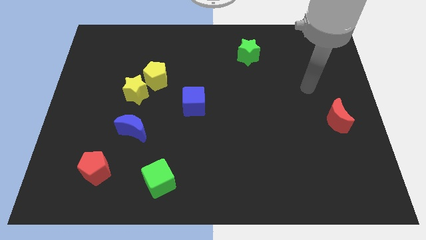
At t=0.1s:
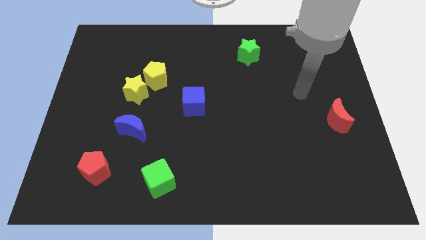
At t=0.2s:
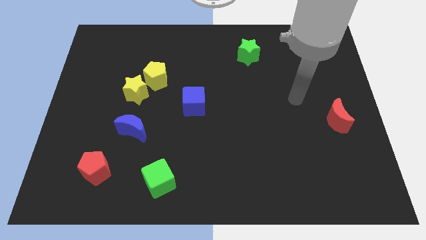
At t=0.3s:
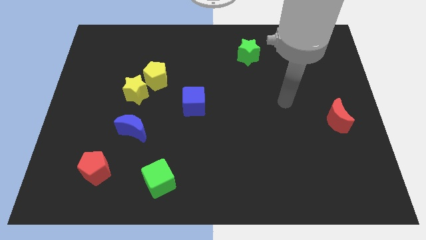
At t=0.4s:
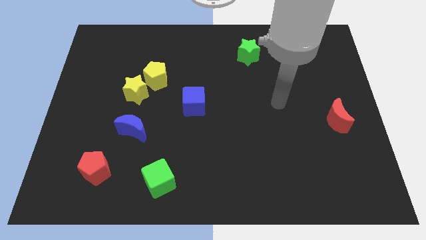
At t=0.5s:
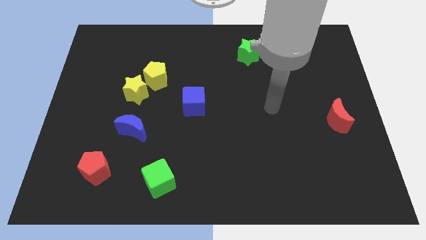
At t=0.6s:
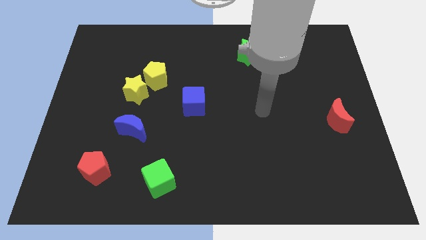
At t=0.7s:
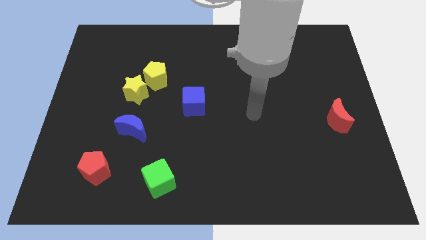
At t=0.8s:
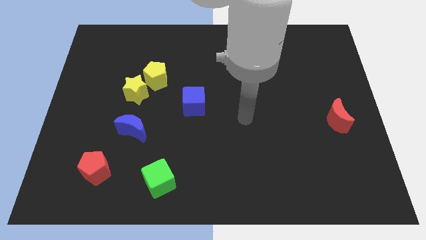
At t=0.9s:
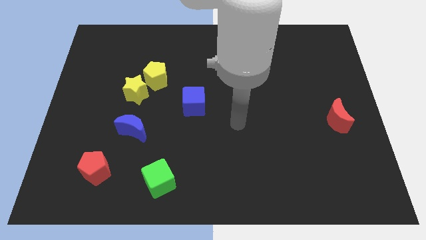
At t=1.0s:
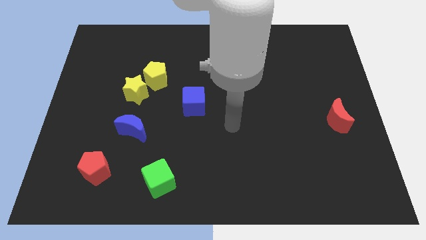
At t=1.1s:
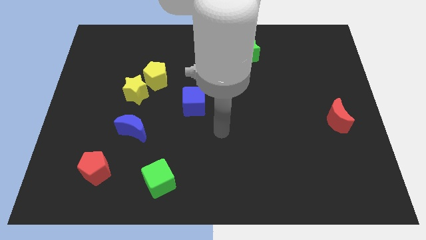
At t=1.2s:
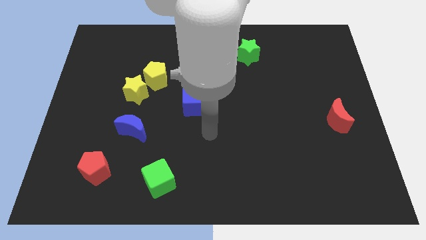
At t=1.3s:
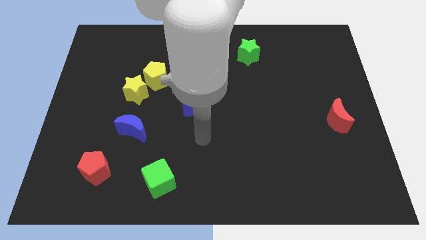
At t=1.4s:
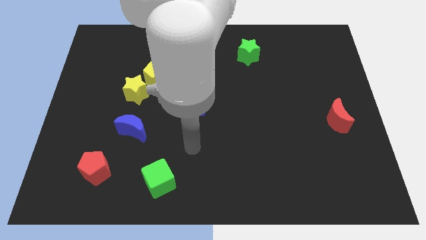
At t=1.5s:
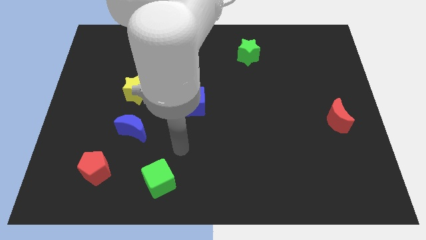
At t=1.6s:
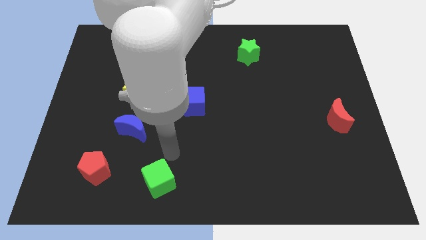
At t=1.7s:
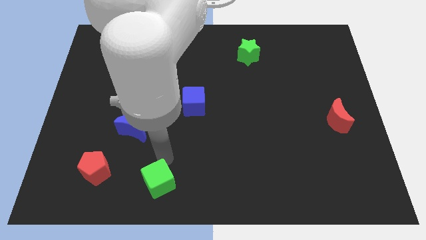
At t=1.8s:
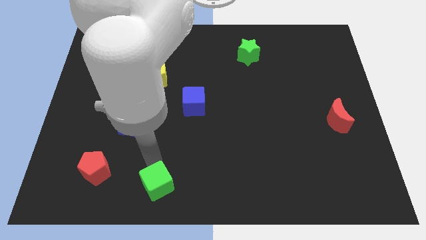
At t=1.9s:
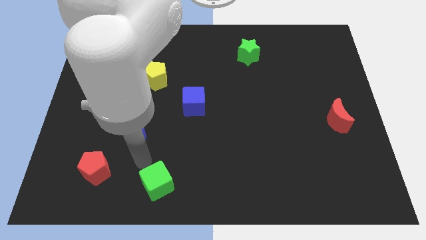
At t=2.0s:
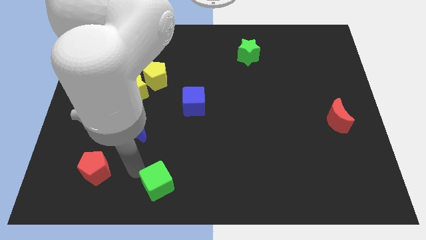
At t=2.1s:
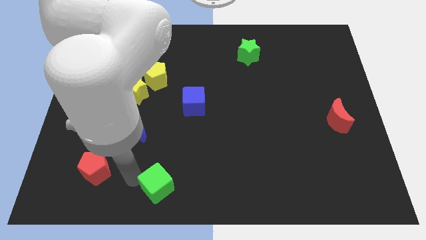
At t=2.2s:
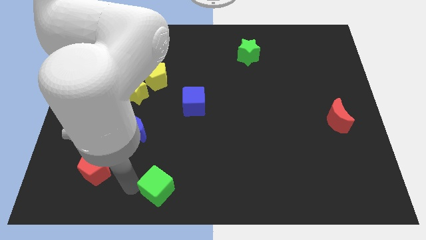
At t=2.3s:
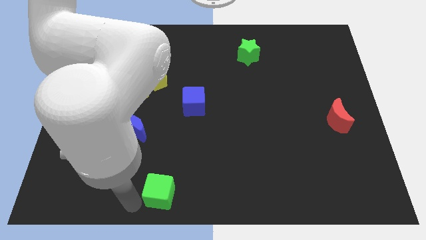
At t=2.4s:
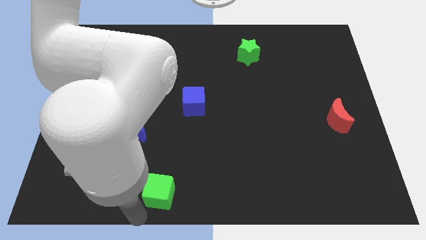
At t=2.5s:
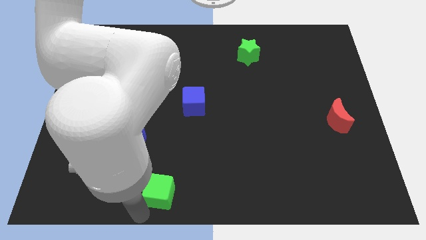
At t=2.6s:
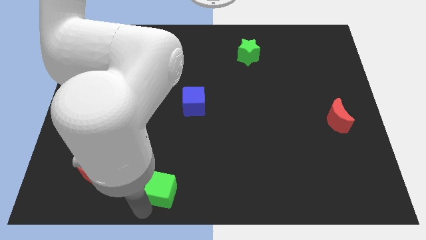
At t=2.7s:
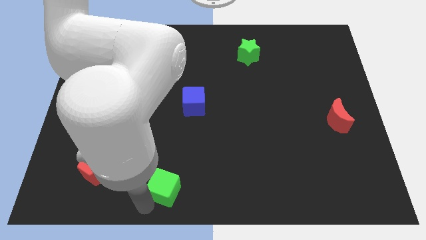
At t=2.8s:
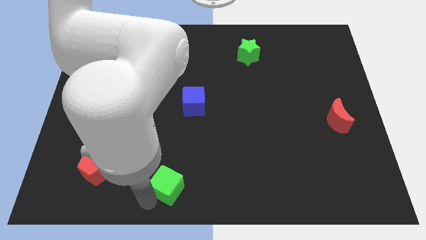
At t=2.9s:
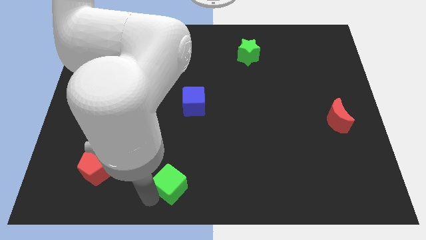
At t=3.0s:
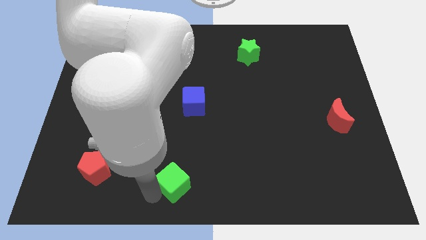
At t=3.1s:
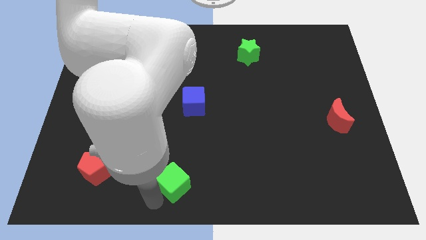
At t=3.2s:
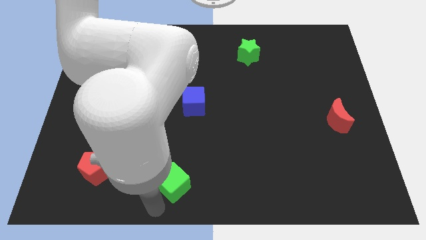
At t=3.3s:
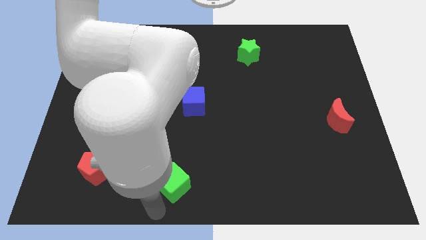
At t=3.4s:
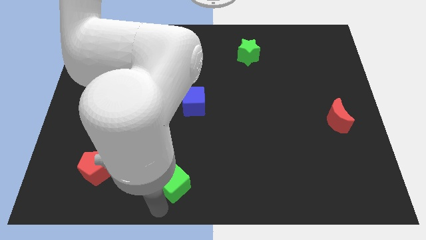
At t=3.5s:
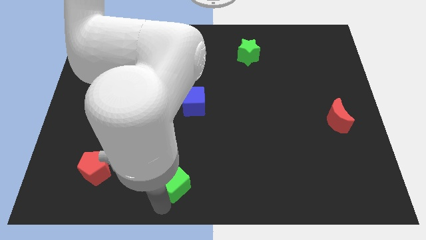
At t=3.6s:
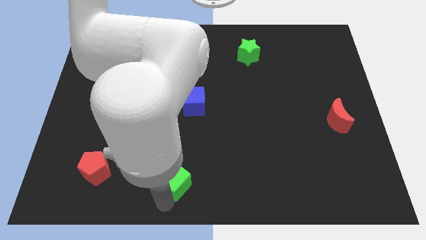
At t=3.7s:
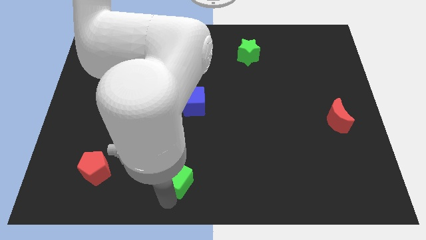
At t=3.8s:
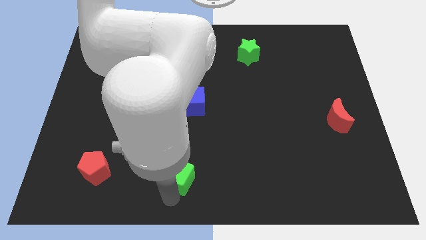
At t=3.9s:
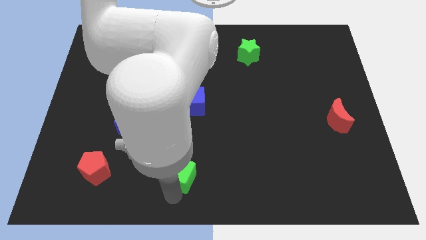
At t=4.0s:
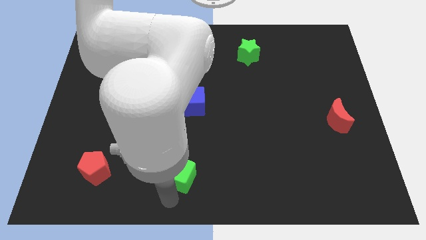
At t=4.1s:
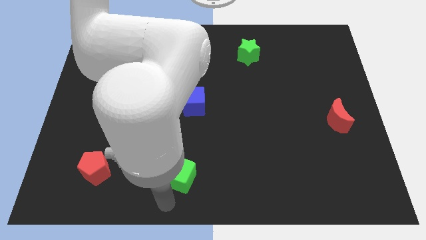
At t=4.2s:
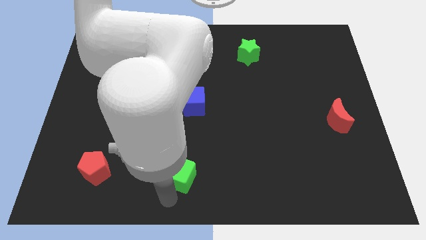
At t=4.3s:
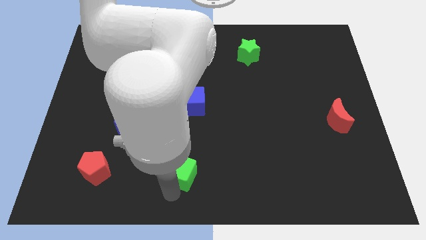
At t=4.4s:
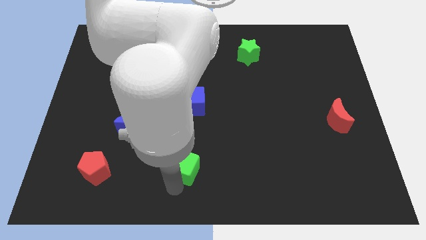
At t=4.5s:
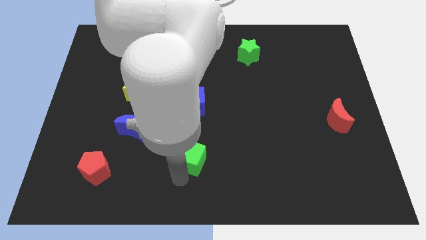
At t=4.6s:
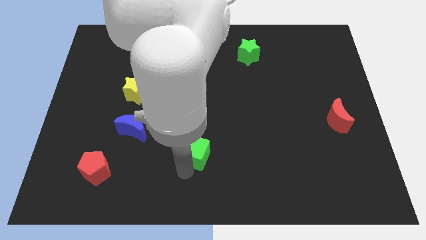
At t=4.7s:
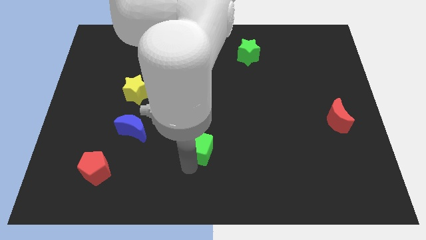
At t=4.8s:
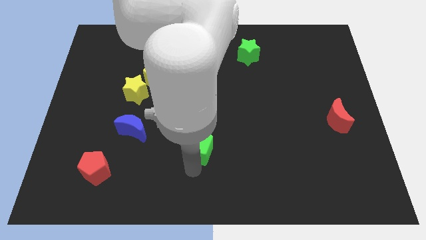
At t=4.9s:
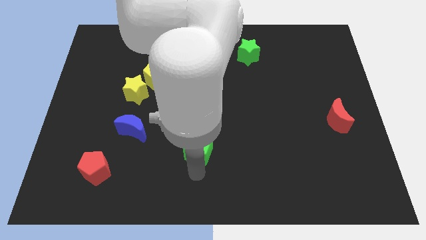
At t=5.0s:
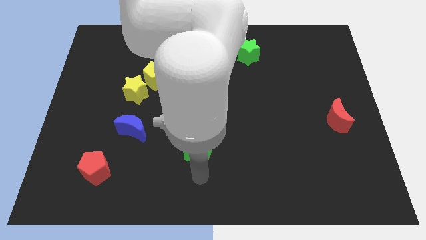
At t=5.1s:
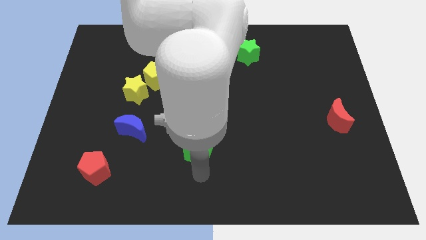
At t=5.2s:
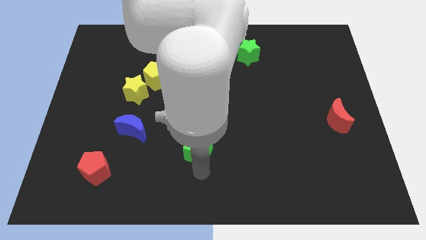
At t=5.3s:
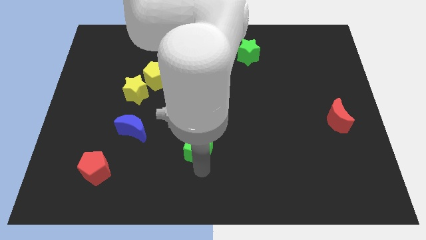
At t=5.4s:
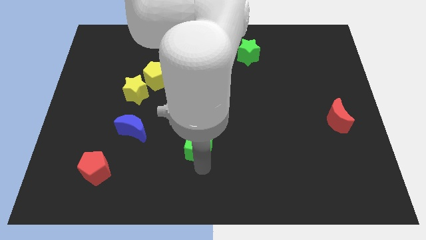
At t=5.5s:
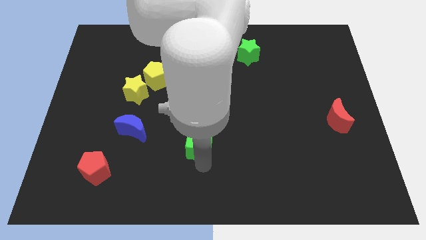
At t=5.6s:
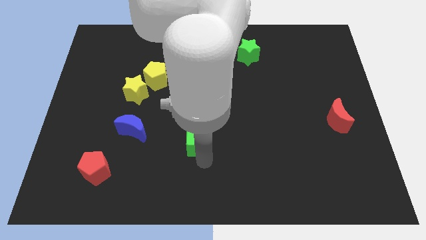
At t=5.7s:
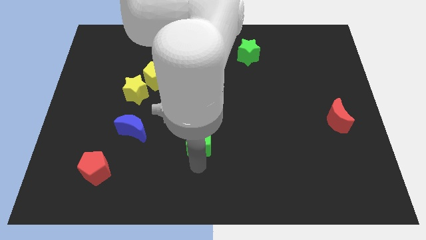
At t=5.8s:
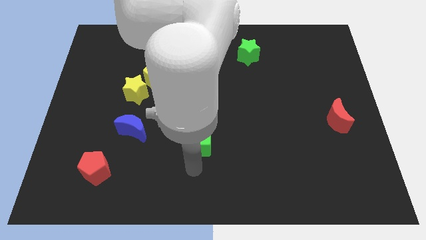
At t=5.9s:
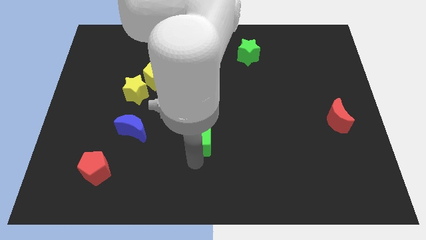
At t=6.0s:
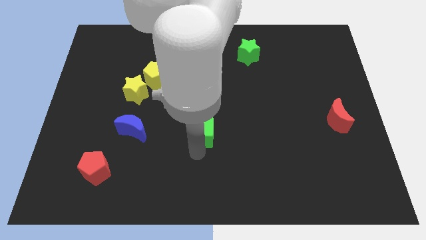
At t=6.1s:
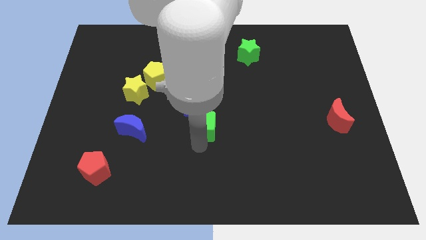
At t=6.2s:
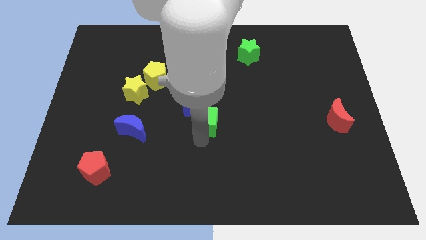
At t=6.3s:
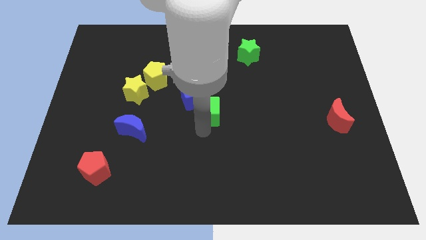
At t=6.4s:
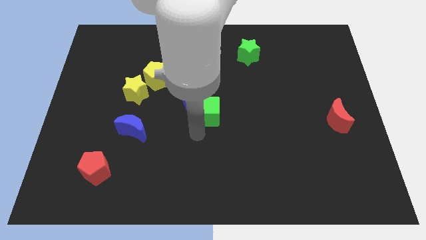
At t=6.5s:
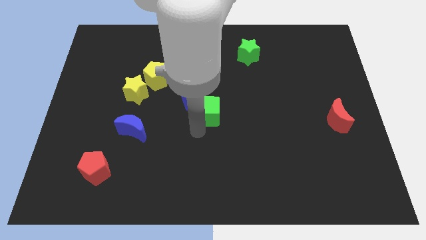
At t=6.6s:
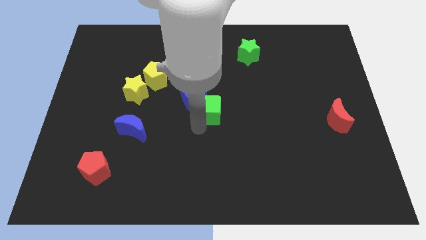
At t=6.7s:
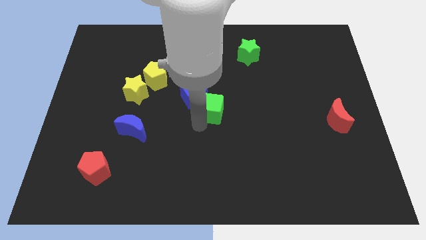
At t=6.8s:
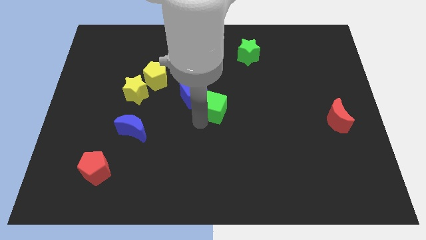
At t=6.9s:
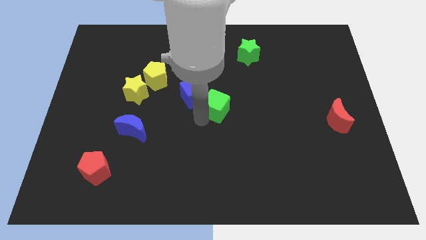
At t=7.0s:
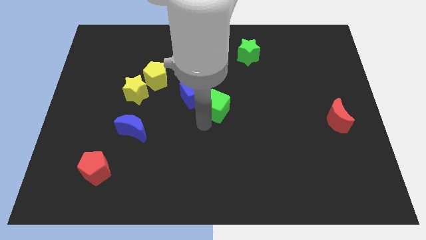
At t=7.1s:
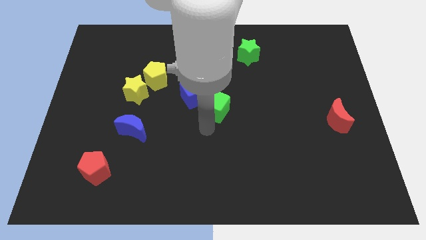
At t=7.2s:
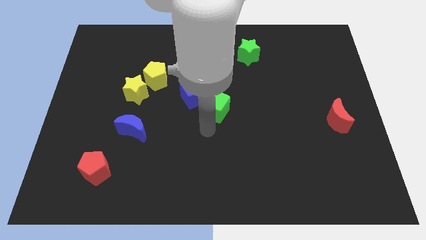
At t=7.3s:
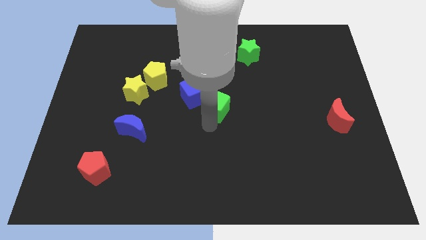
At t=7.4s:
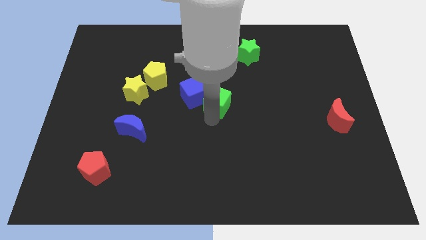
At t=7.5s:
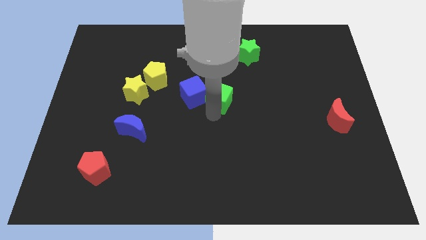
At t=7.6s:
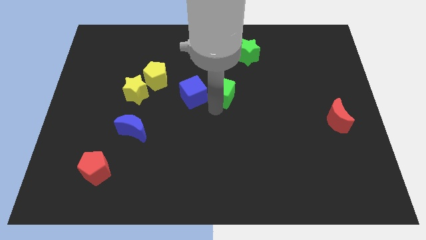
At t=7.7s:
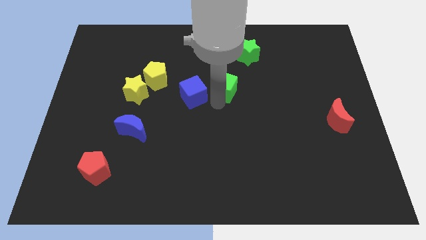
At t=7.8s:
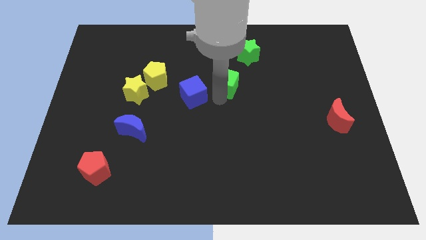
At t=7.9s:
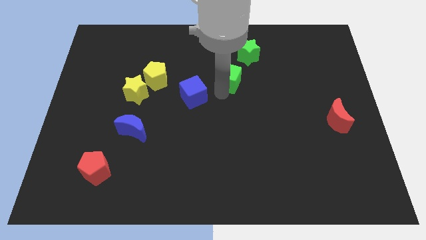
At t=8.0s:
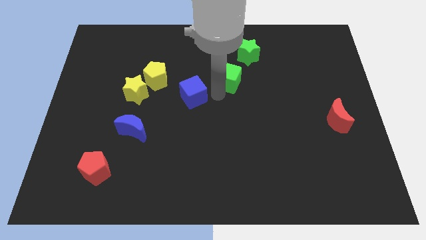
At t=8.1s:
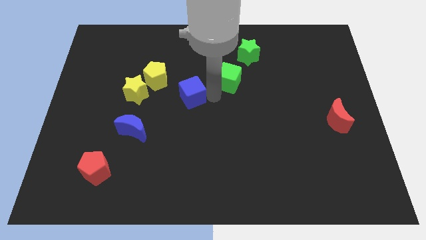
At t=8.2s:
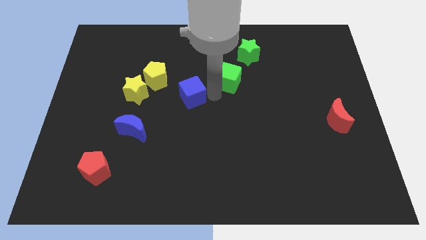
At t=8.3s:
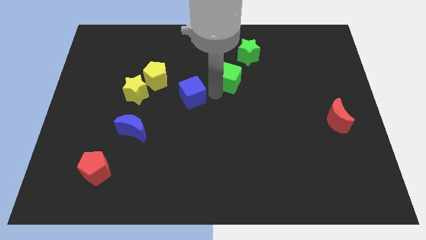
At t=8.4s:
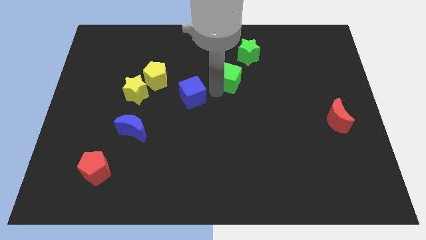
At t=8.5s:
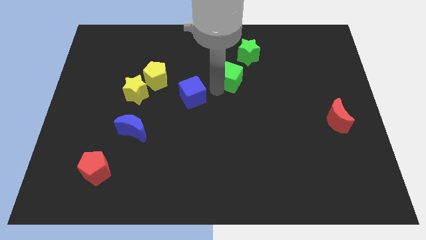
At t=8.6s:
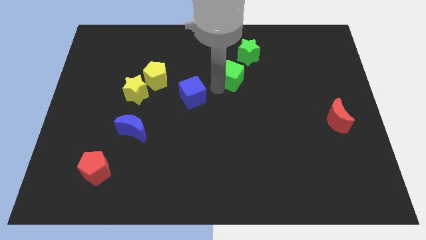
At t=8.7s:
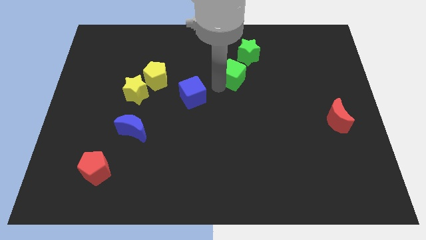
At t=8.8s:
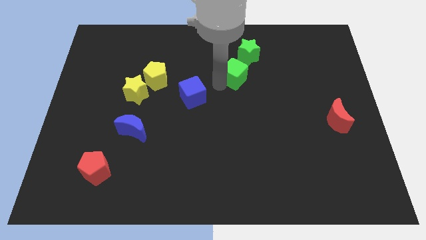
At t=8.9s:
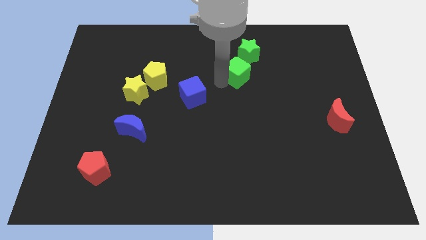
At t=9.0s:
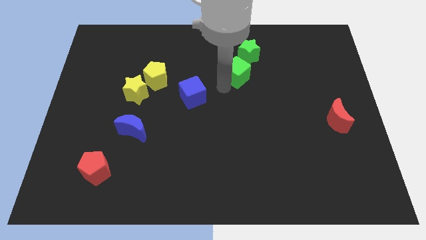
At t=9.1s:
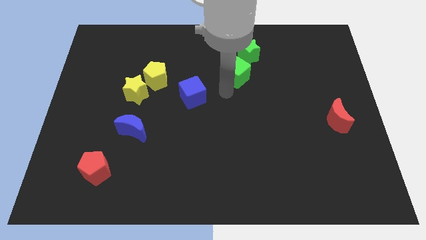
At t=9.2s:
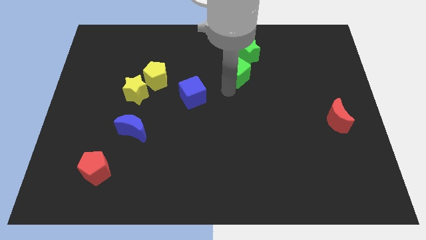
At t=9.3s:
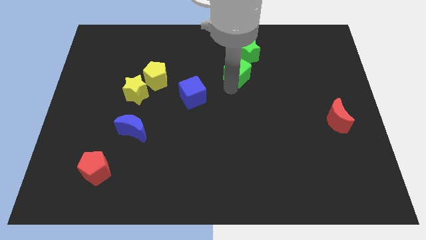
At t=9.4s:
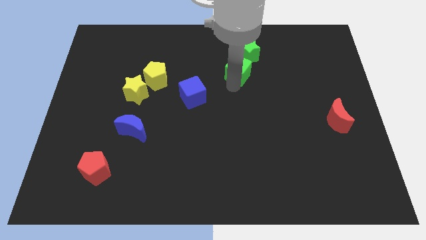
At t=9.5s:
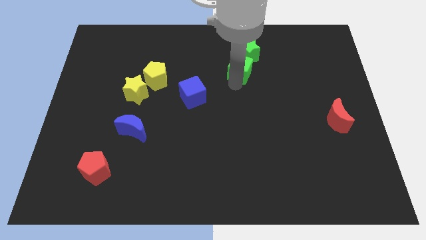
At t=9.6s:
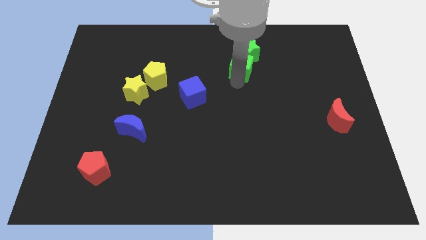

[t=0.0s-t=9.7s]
put the green cube next to the green star
